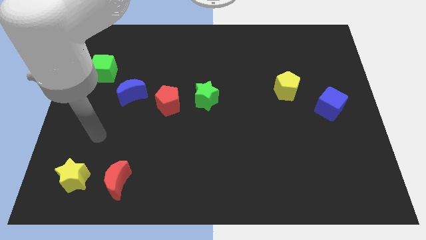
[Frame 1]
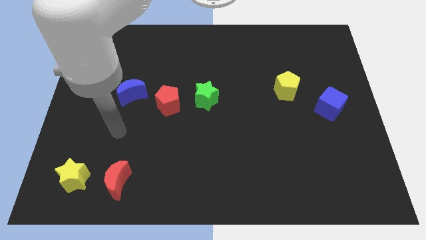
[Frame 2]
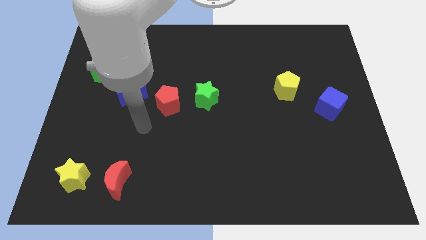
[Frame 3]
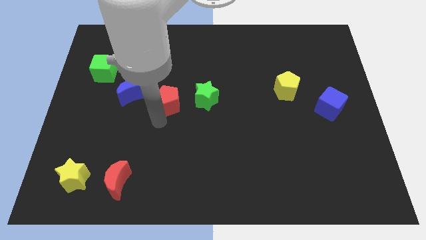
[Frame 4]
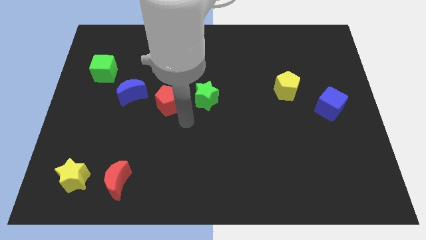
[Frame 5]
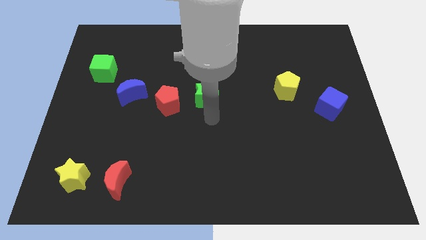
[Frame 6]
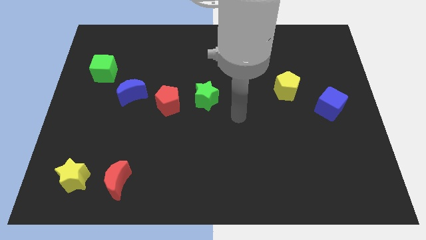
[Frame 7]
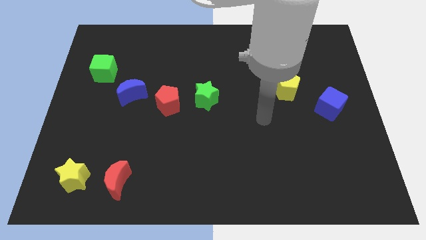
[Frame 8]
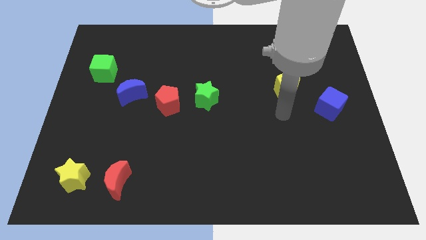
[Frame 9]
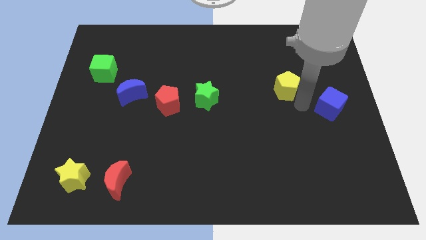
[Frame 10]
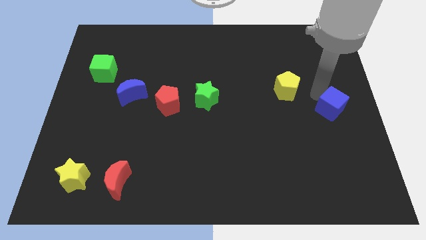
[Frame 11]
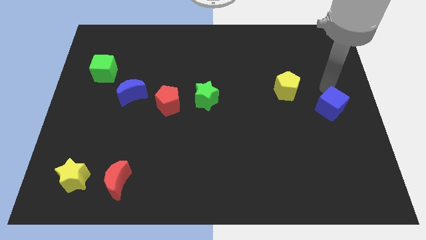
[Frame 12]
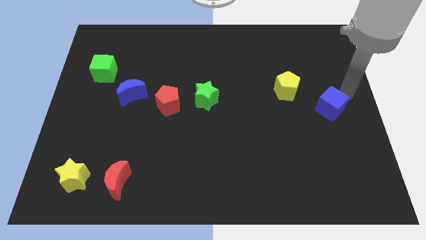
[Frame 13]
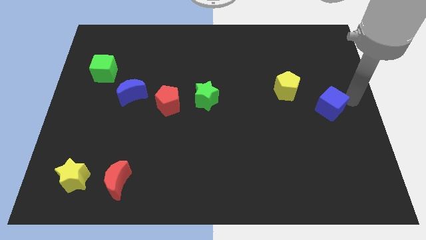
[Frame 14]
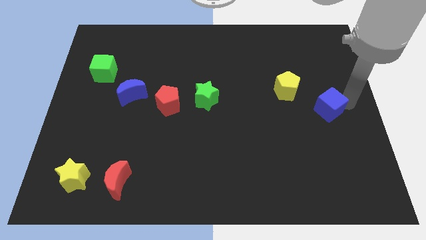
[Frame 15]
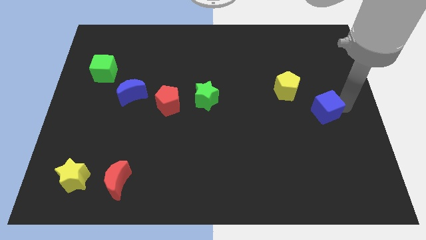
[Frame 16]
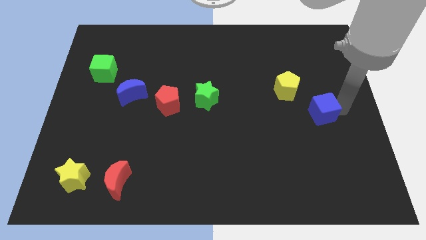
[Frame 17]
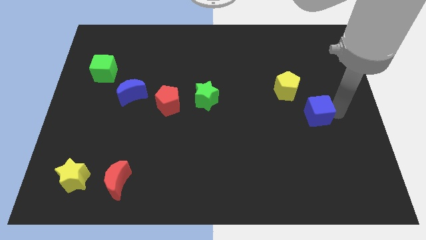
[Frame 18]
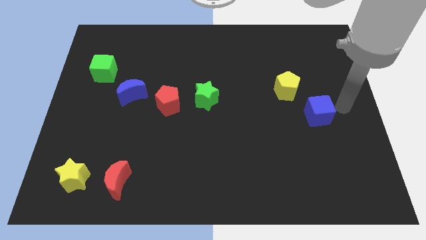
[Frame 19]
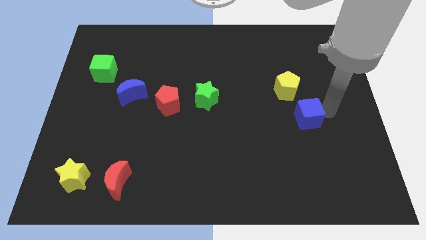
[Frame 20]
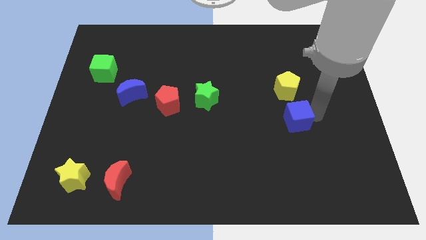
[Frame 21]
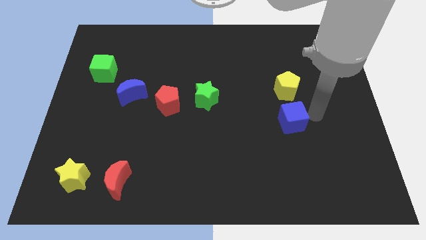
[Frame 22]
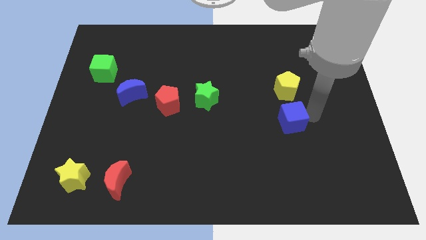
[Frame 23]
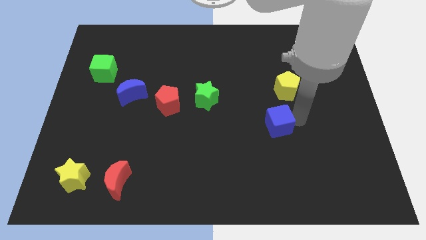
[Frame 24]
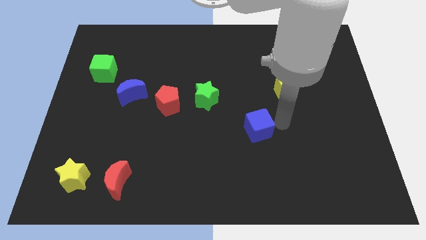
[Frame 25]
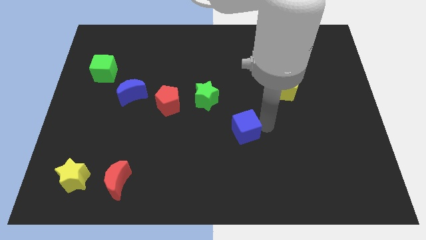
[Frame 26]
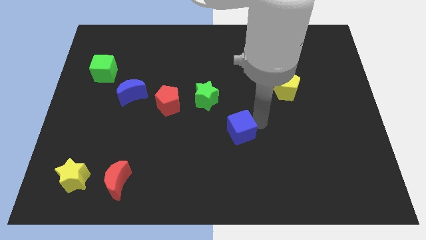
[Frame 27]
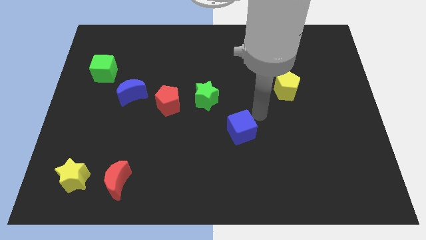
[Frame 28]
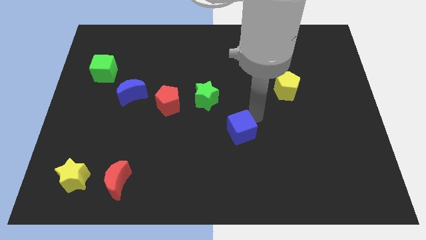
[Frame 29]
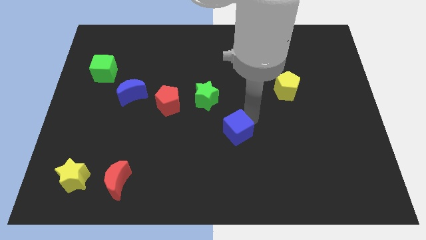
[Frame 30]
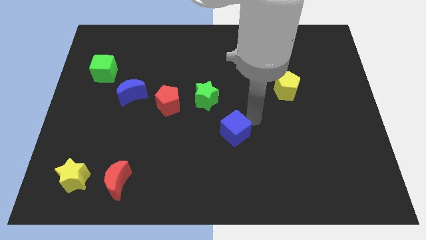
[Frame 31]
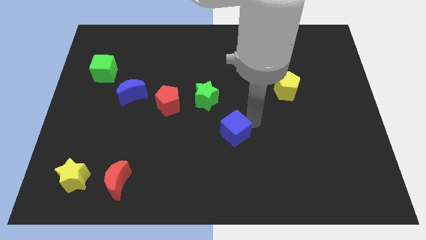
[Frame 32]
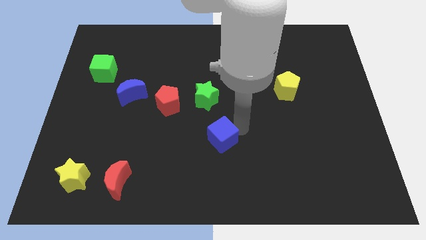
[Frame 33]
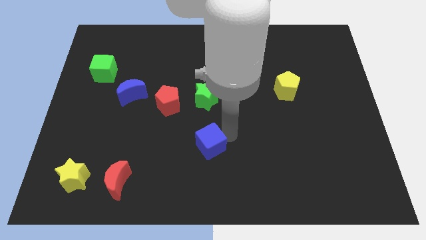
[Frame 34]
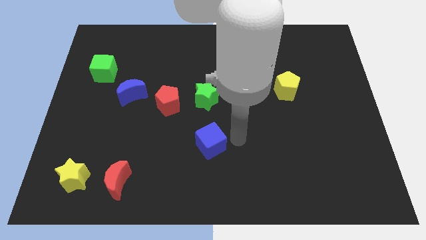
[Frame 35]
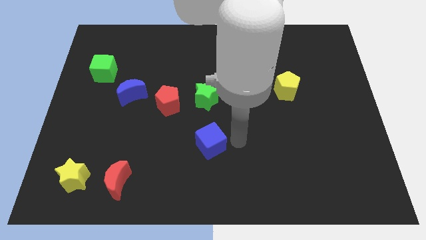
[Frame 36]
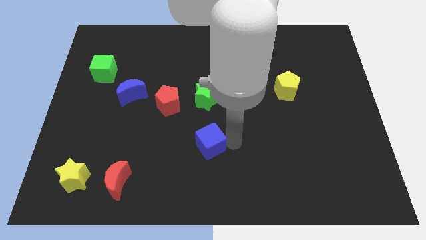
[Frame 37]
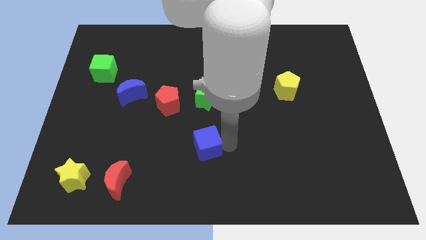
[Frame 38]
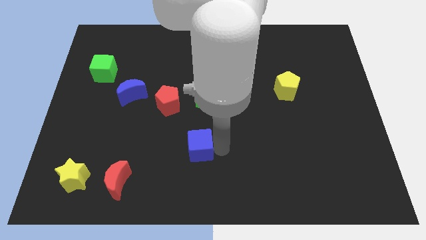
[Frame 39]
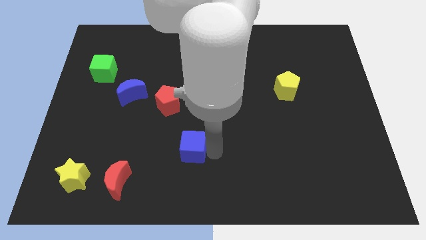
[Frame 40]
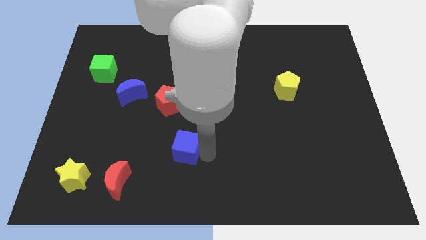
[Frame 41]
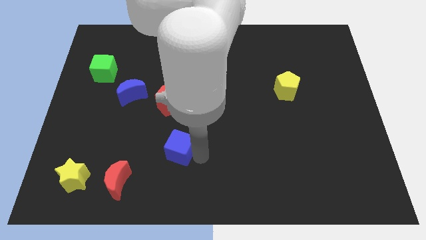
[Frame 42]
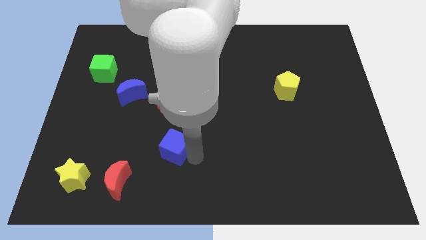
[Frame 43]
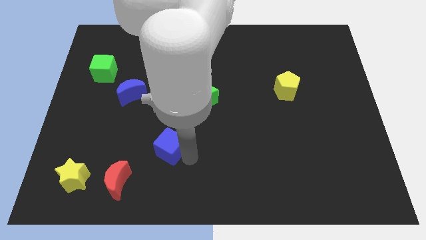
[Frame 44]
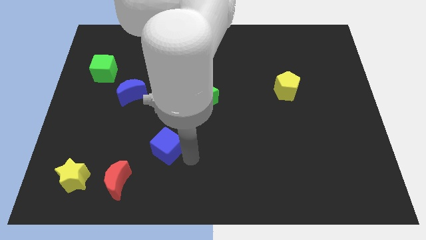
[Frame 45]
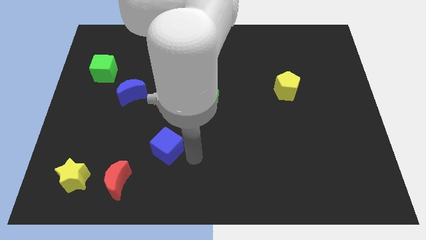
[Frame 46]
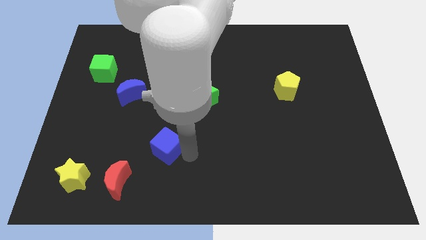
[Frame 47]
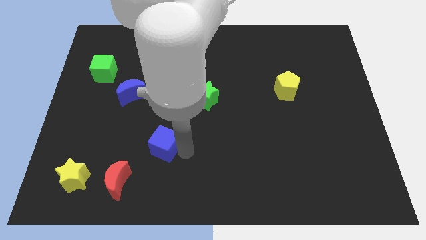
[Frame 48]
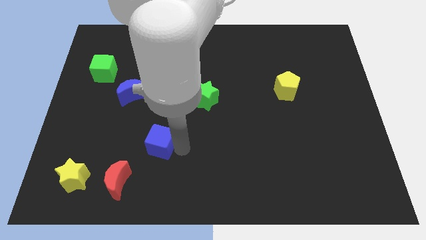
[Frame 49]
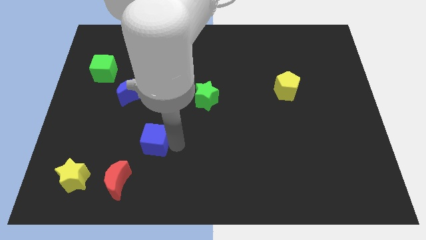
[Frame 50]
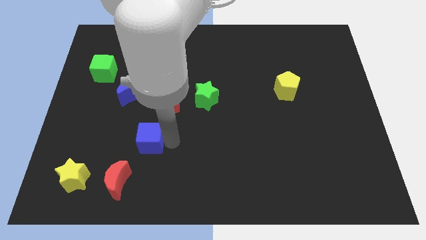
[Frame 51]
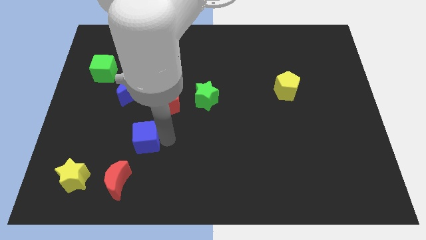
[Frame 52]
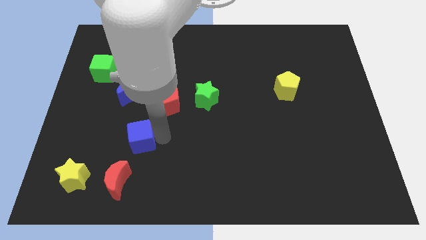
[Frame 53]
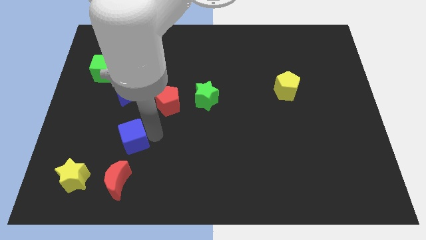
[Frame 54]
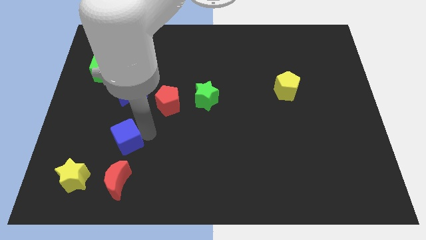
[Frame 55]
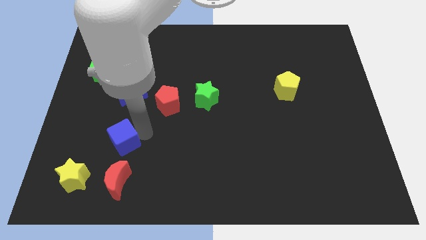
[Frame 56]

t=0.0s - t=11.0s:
put the blue cube diagonally up and to the right of the yellow star

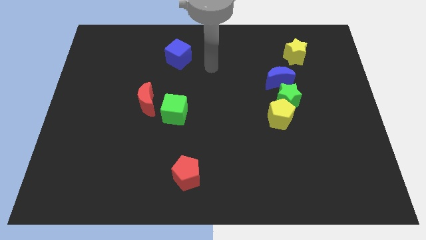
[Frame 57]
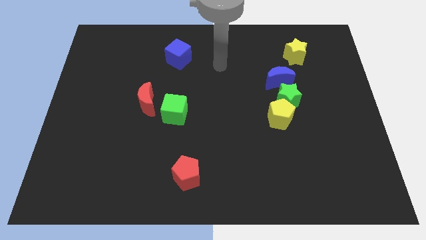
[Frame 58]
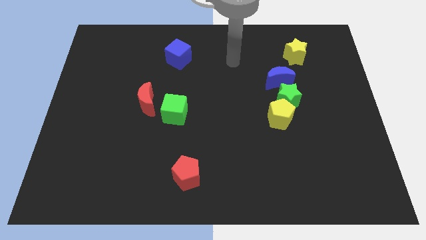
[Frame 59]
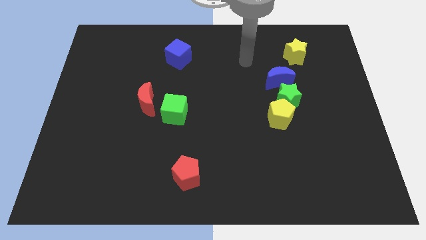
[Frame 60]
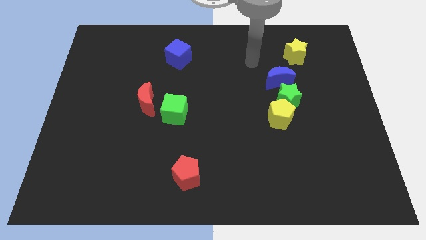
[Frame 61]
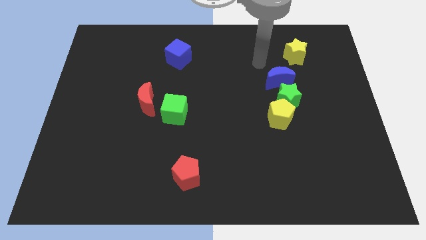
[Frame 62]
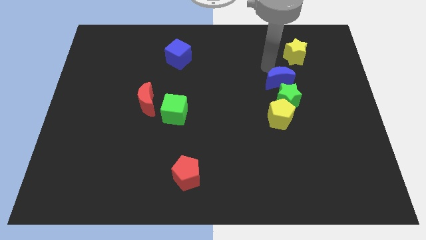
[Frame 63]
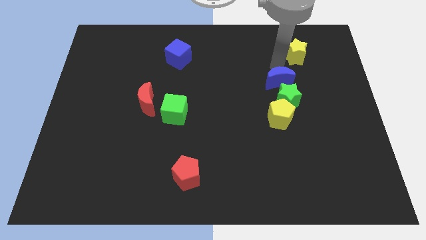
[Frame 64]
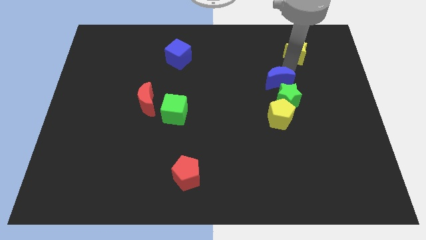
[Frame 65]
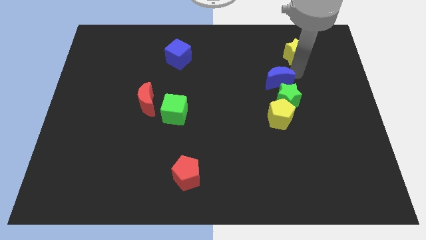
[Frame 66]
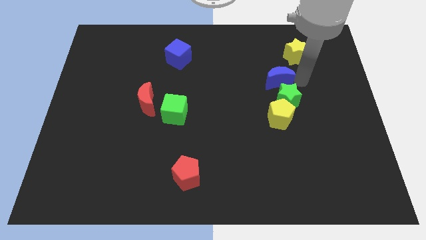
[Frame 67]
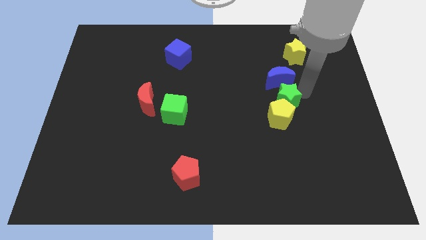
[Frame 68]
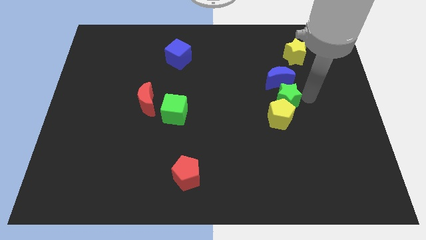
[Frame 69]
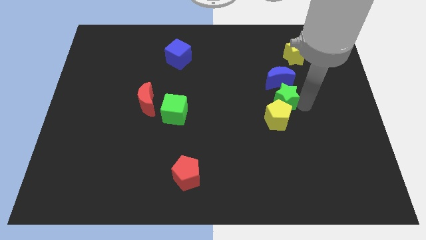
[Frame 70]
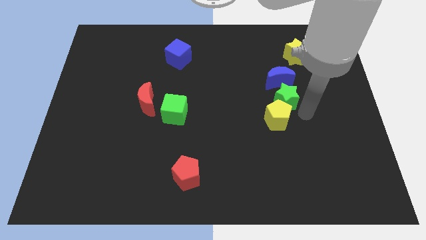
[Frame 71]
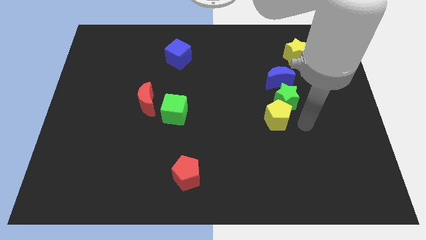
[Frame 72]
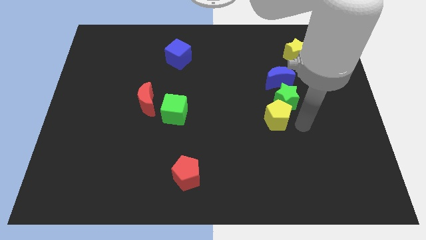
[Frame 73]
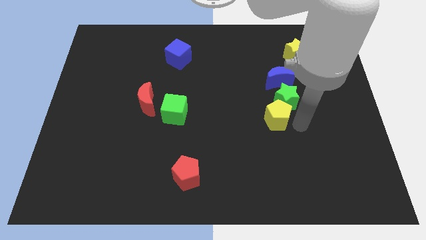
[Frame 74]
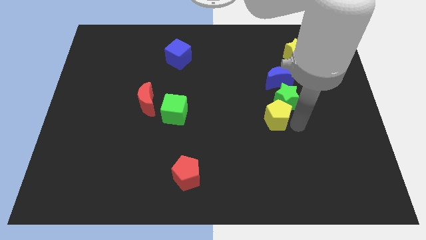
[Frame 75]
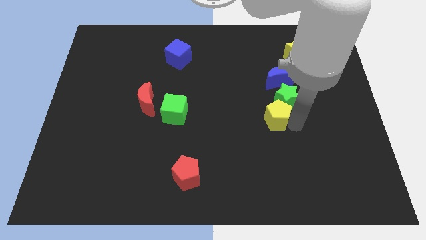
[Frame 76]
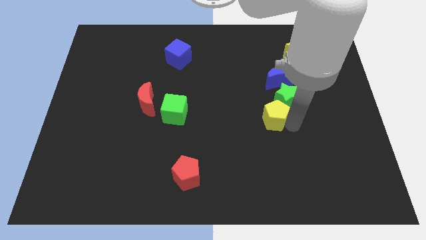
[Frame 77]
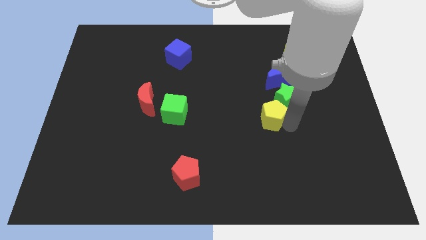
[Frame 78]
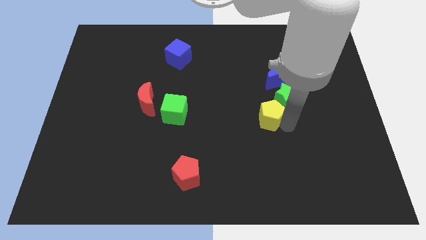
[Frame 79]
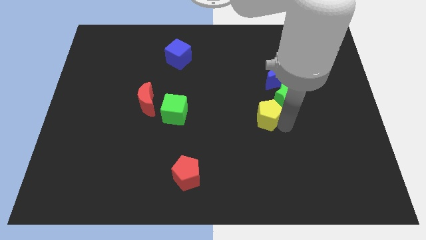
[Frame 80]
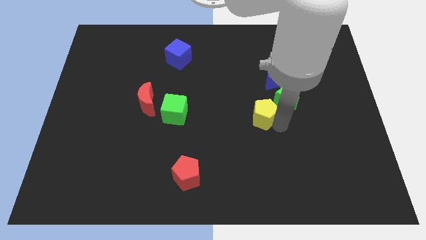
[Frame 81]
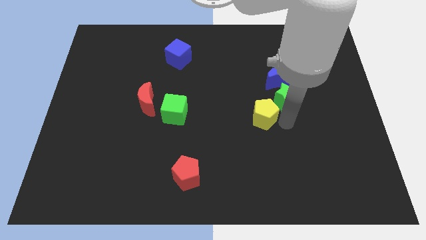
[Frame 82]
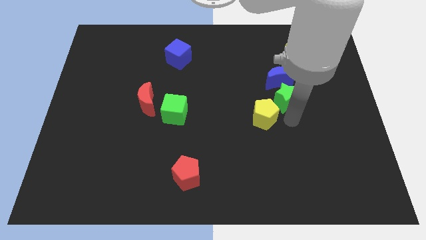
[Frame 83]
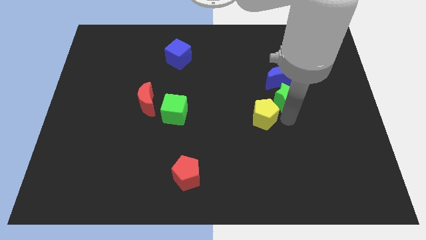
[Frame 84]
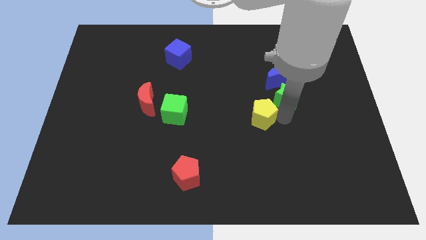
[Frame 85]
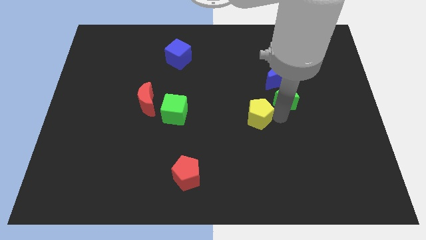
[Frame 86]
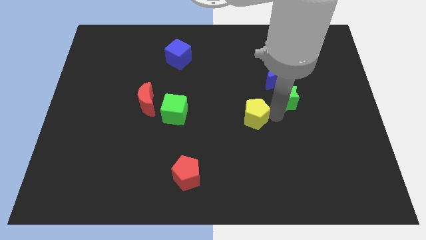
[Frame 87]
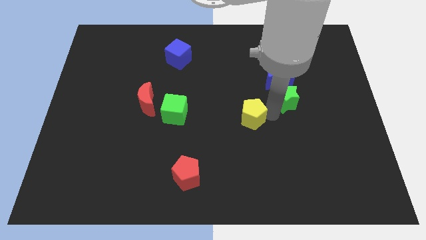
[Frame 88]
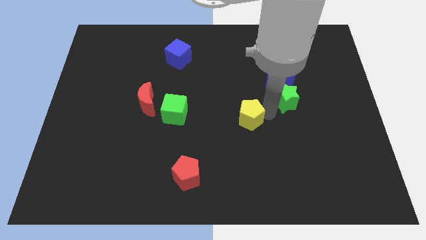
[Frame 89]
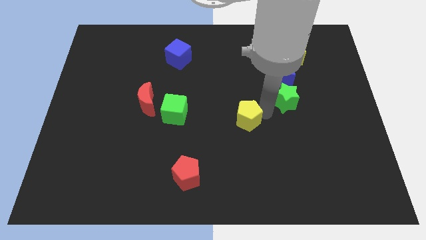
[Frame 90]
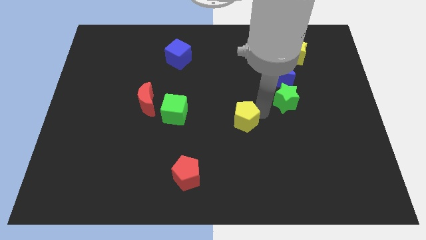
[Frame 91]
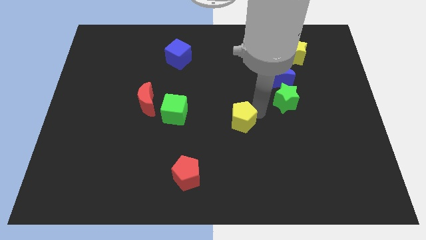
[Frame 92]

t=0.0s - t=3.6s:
push the yellow pentagon just right of the green cube
